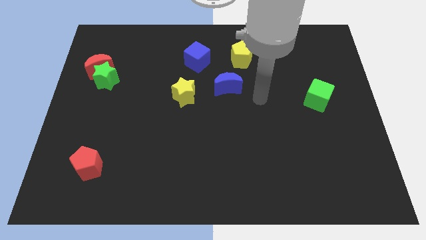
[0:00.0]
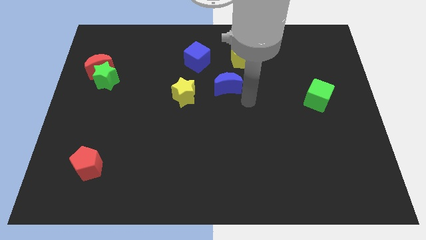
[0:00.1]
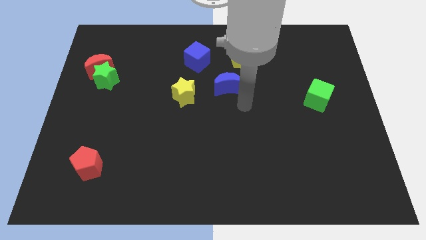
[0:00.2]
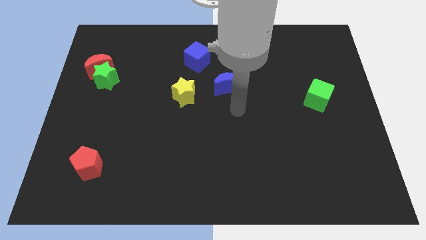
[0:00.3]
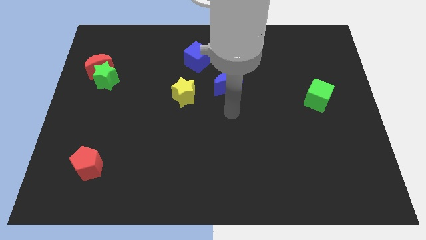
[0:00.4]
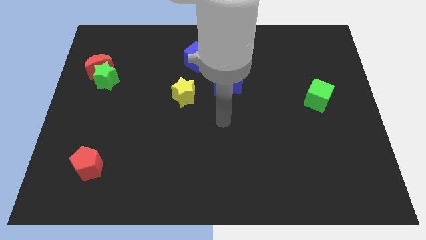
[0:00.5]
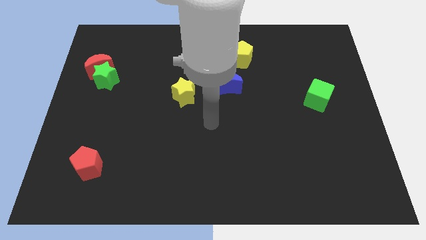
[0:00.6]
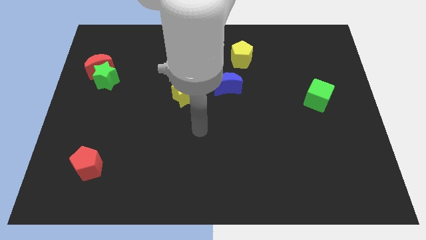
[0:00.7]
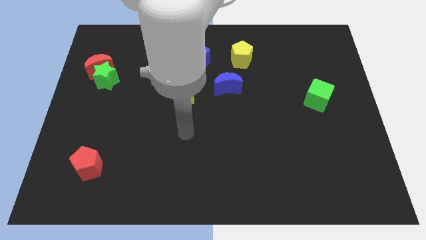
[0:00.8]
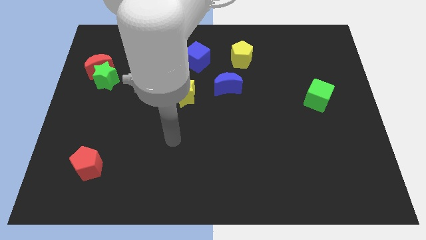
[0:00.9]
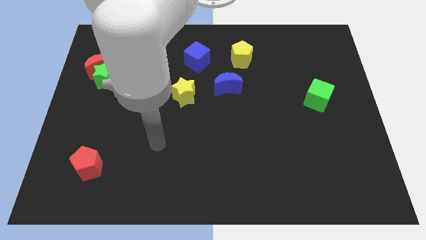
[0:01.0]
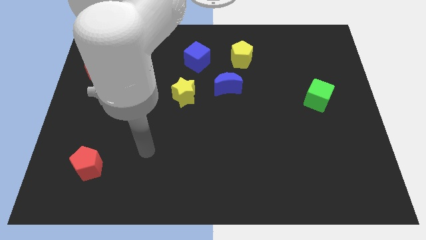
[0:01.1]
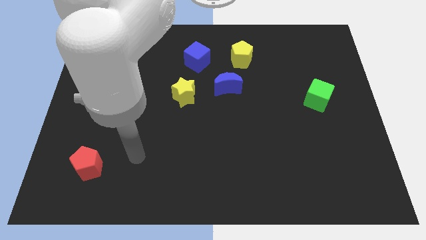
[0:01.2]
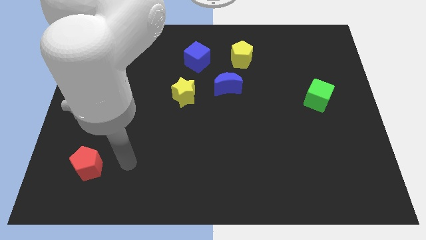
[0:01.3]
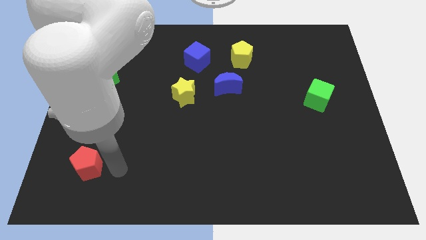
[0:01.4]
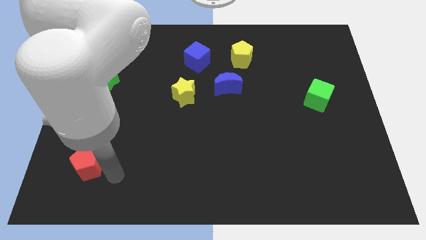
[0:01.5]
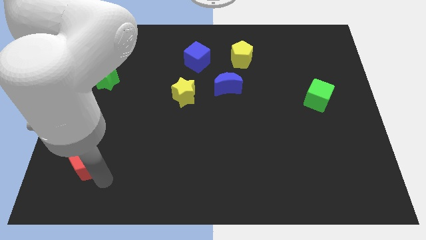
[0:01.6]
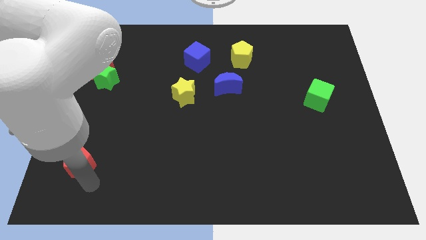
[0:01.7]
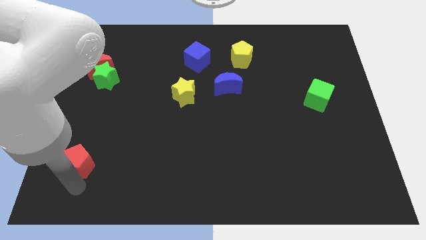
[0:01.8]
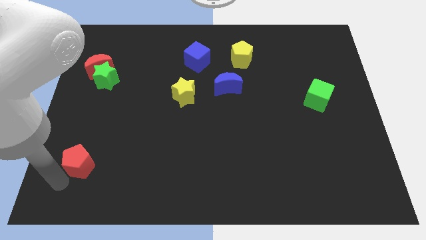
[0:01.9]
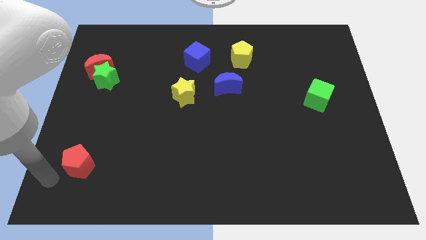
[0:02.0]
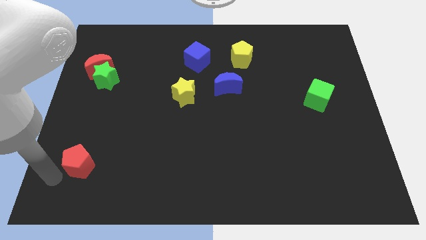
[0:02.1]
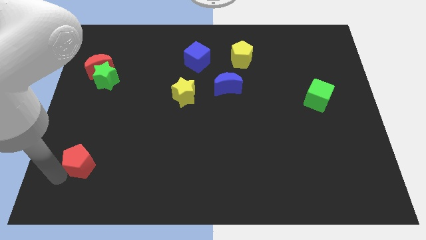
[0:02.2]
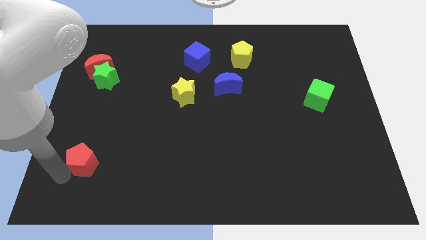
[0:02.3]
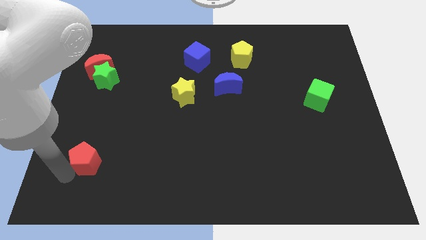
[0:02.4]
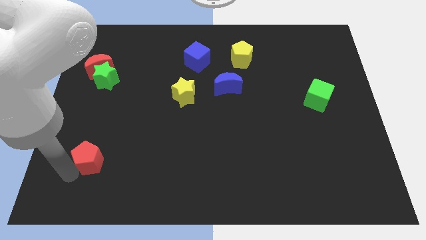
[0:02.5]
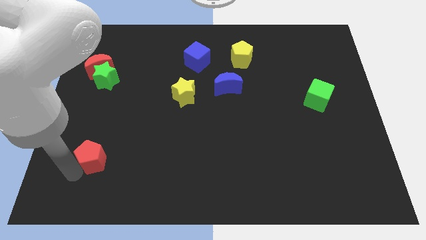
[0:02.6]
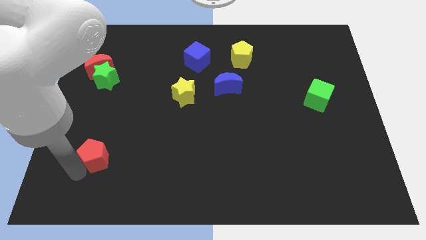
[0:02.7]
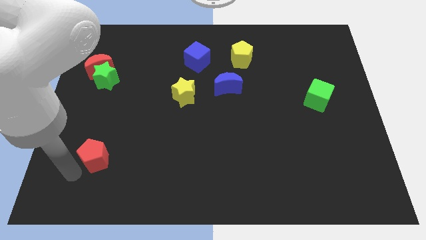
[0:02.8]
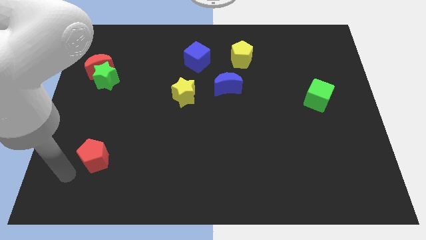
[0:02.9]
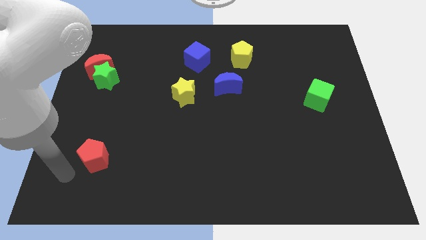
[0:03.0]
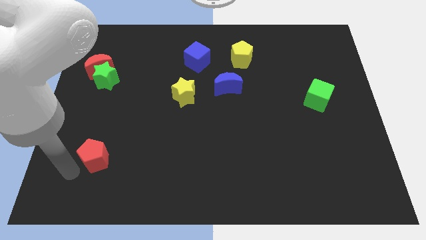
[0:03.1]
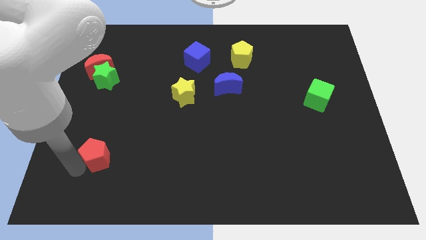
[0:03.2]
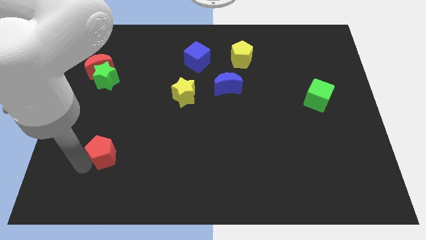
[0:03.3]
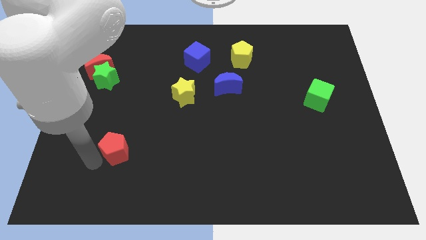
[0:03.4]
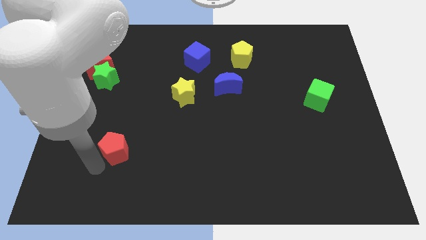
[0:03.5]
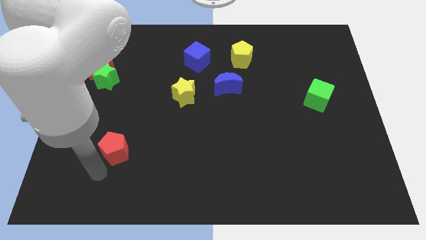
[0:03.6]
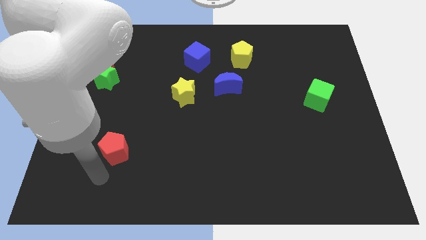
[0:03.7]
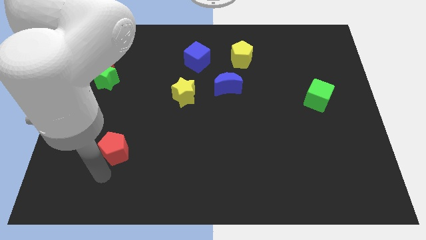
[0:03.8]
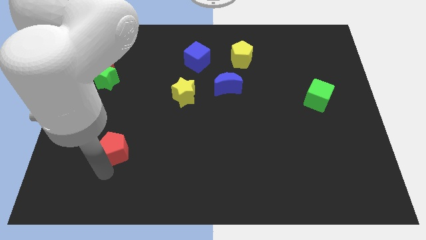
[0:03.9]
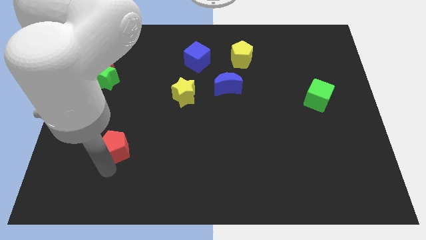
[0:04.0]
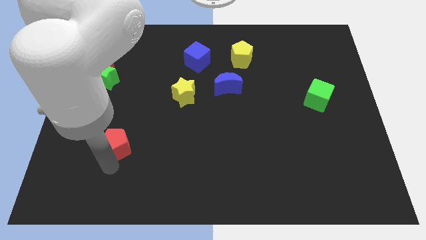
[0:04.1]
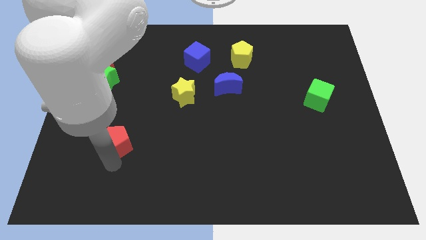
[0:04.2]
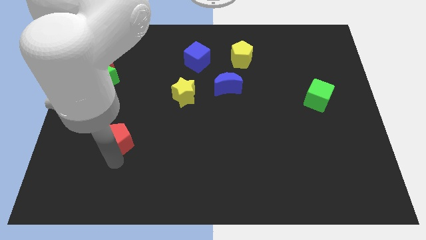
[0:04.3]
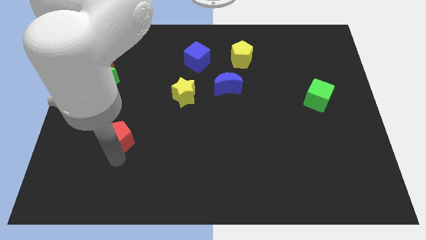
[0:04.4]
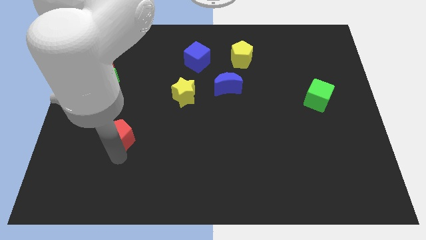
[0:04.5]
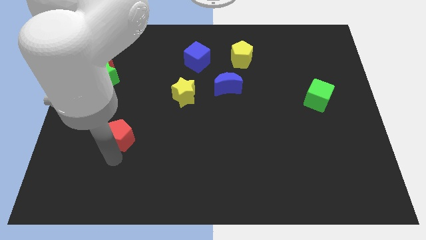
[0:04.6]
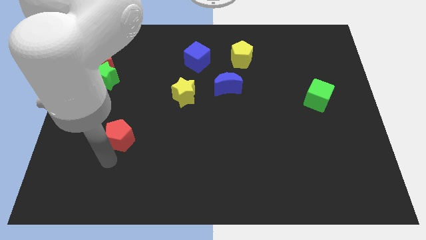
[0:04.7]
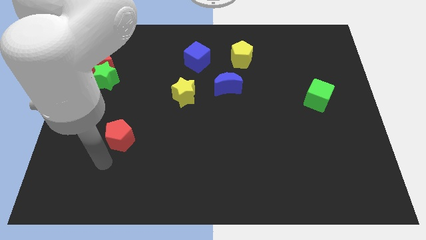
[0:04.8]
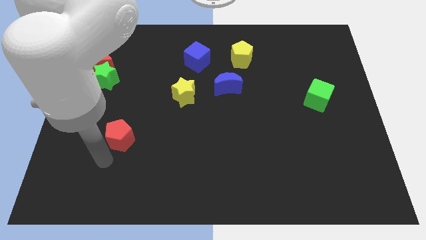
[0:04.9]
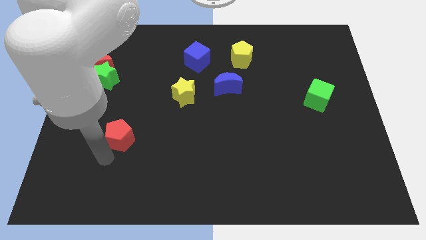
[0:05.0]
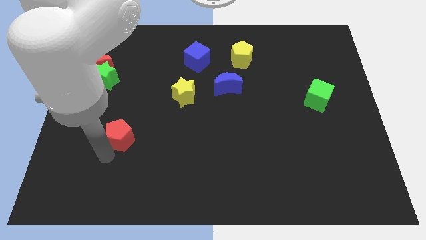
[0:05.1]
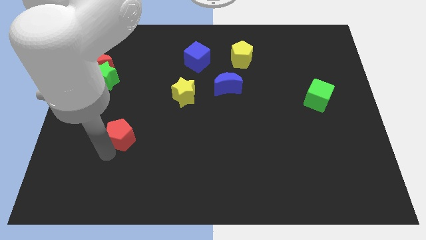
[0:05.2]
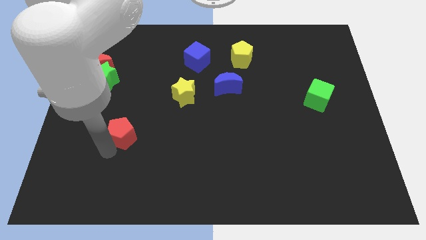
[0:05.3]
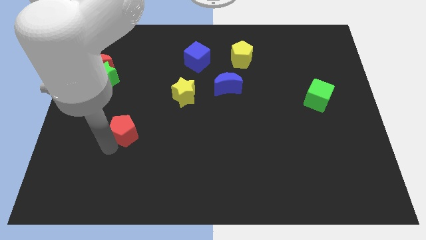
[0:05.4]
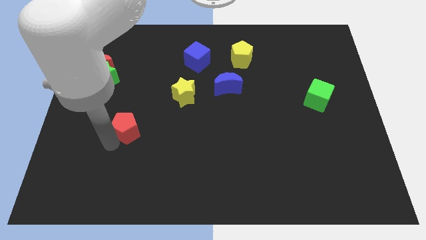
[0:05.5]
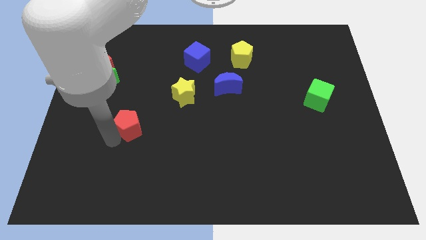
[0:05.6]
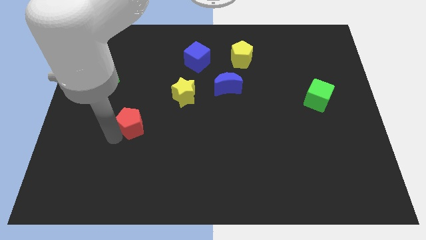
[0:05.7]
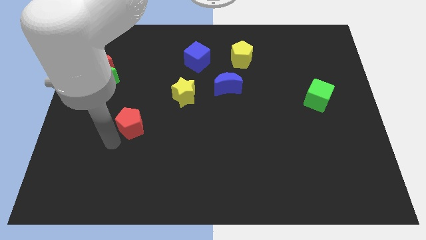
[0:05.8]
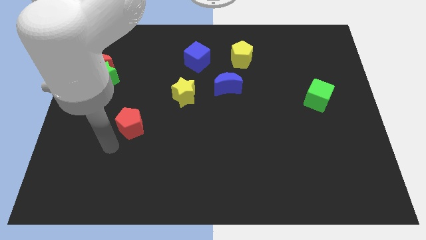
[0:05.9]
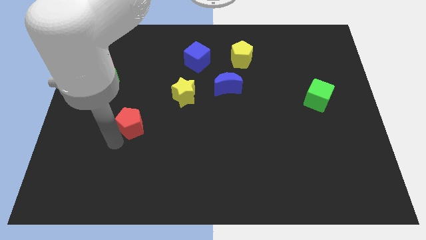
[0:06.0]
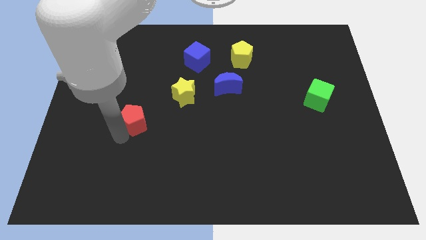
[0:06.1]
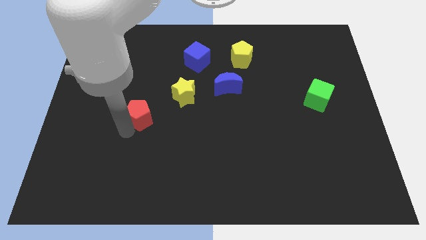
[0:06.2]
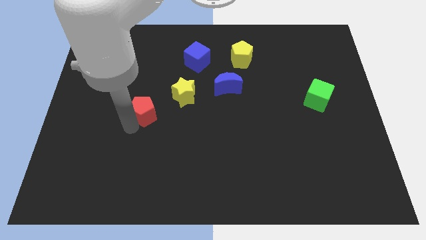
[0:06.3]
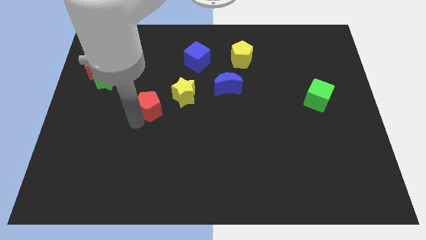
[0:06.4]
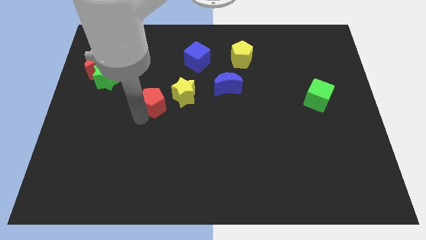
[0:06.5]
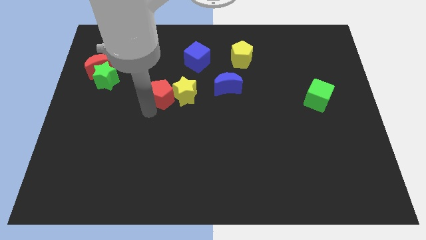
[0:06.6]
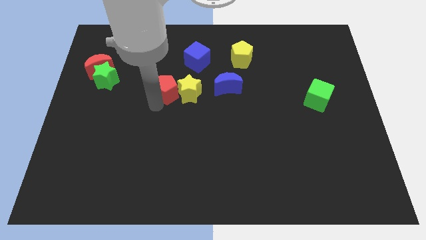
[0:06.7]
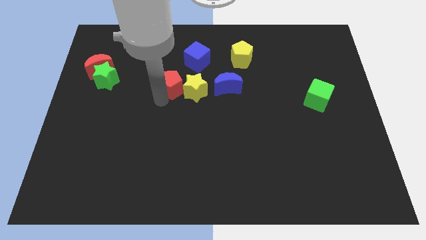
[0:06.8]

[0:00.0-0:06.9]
push the red pentagon to the bottom left of the blue cube
